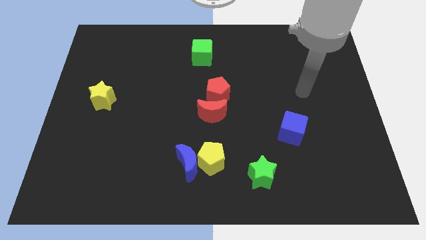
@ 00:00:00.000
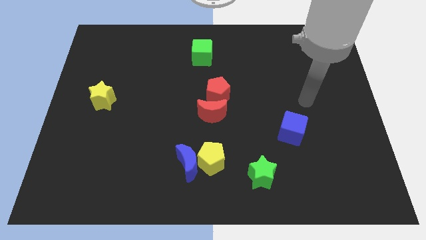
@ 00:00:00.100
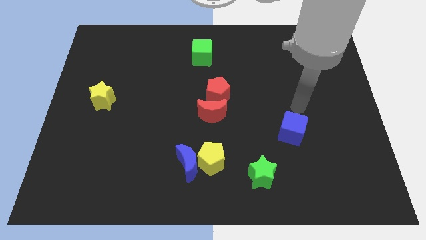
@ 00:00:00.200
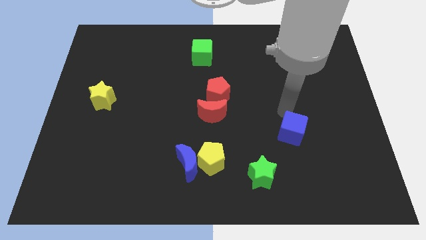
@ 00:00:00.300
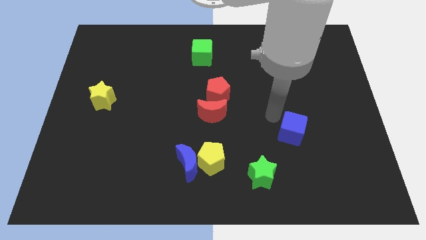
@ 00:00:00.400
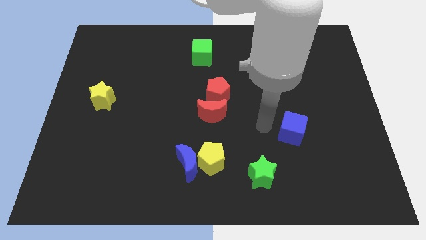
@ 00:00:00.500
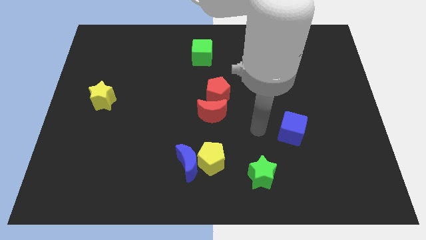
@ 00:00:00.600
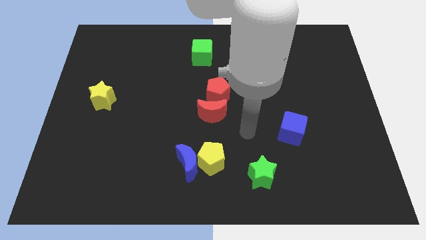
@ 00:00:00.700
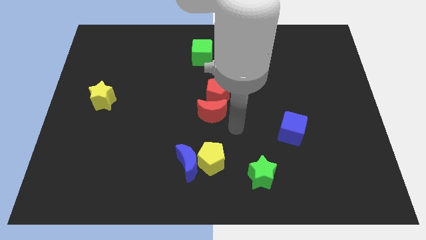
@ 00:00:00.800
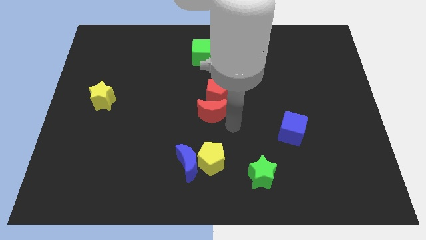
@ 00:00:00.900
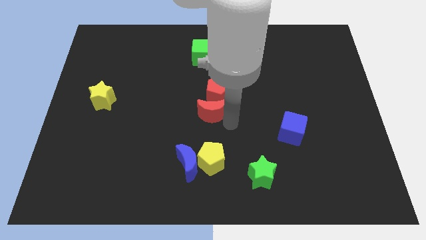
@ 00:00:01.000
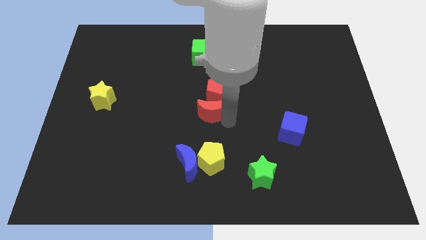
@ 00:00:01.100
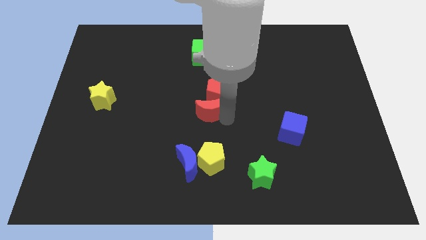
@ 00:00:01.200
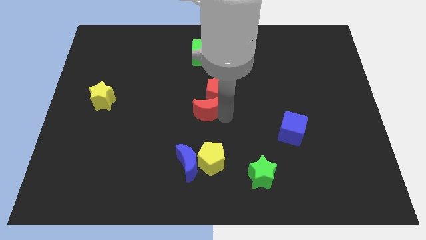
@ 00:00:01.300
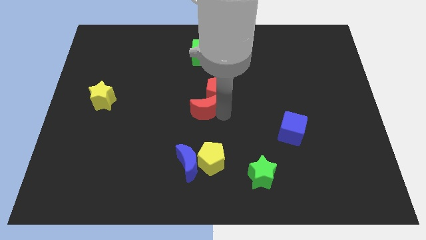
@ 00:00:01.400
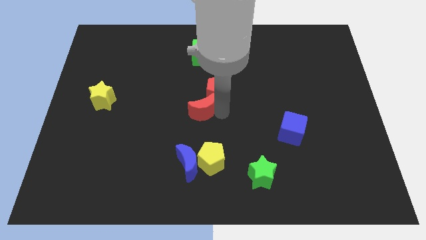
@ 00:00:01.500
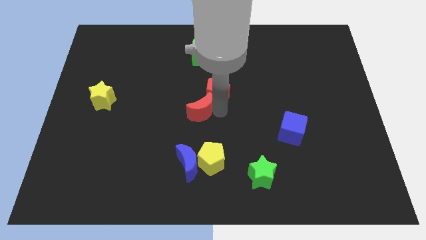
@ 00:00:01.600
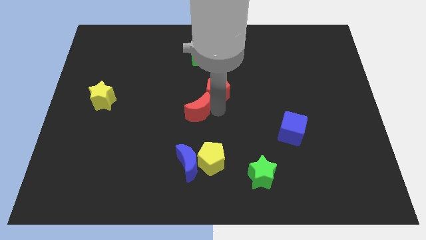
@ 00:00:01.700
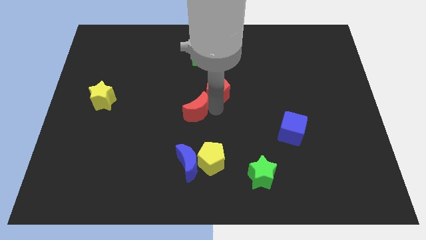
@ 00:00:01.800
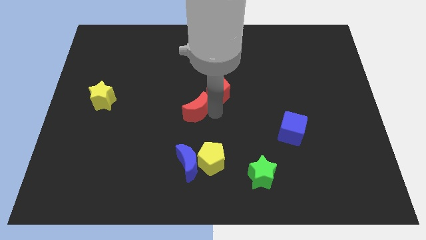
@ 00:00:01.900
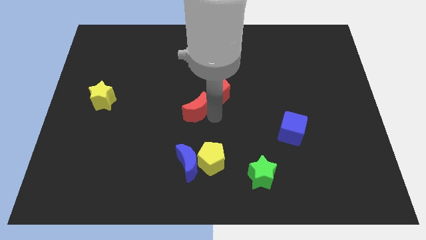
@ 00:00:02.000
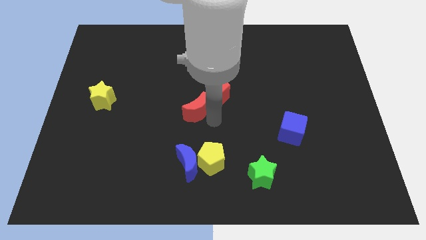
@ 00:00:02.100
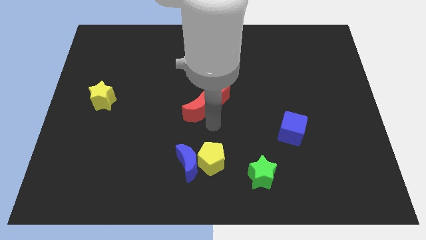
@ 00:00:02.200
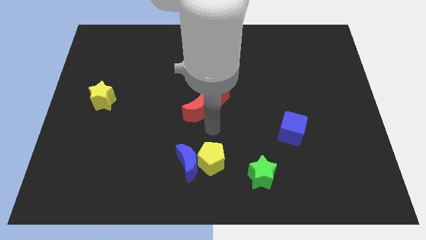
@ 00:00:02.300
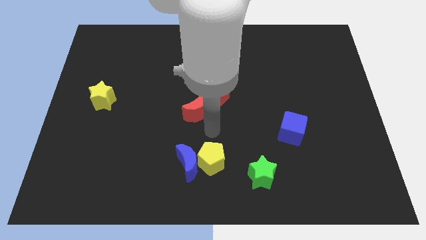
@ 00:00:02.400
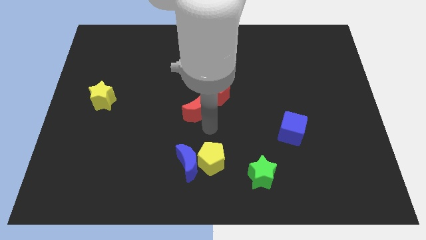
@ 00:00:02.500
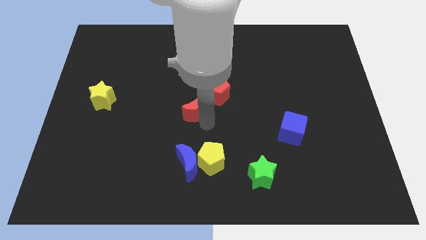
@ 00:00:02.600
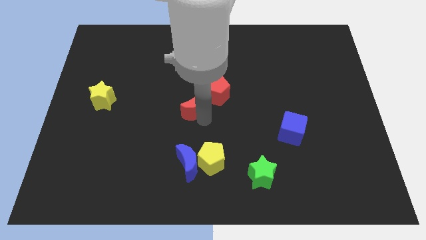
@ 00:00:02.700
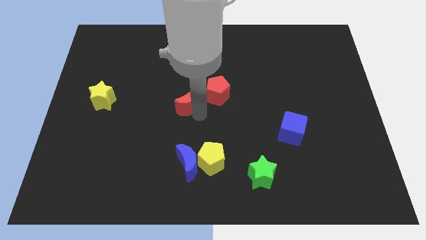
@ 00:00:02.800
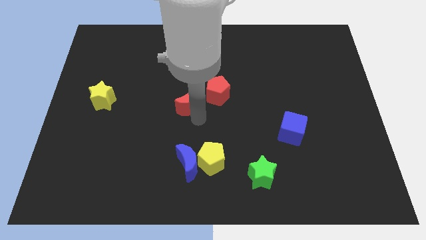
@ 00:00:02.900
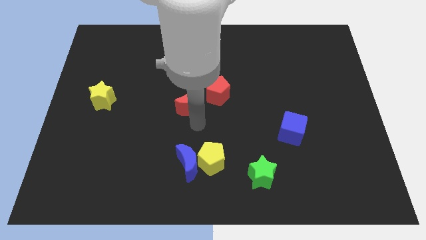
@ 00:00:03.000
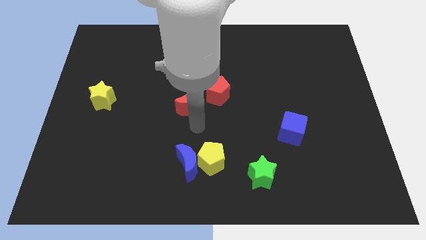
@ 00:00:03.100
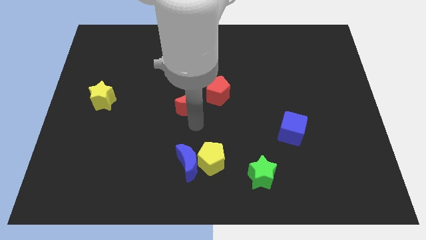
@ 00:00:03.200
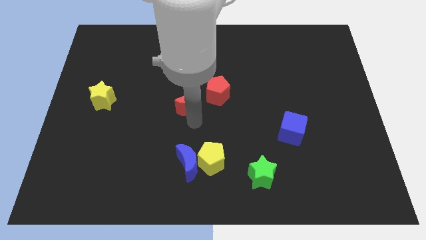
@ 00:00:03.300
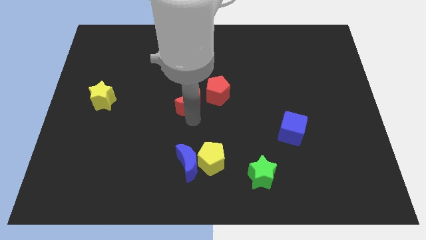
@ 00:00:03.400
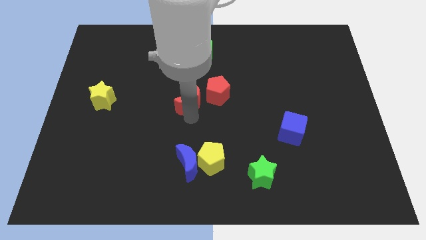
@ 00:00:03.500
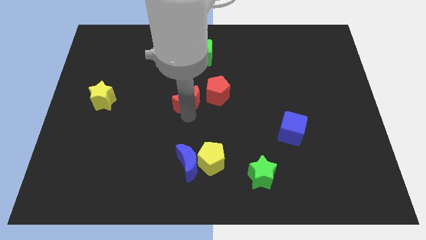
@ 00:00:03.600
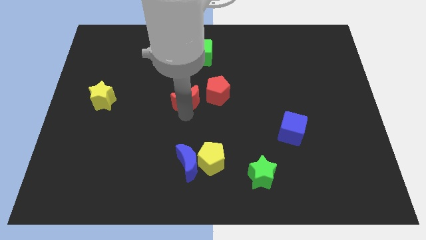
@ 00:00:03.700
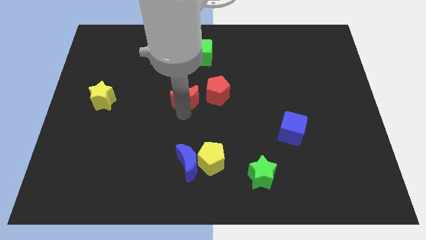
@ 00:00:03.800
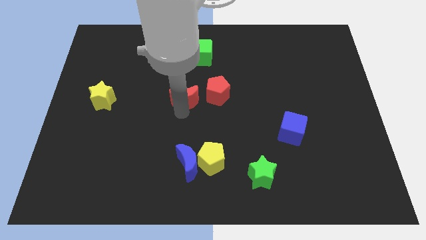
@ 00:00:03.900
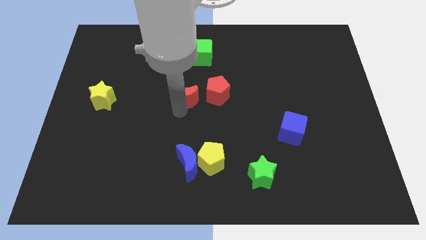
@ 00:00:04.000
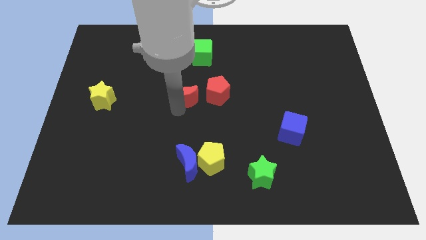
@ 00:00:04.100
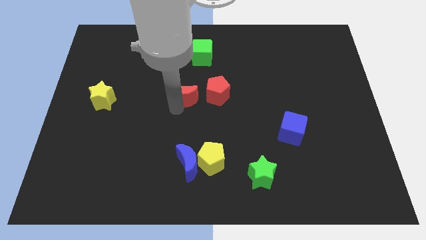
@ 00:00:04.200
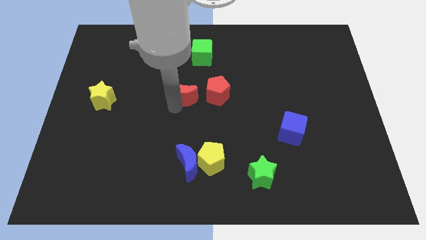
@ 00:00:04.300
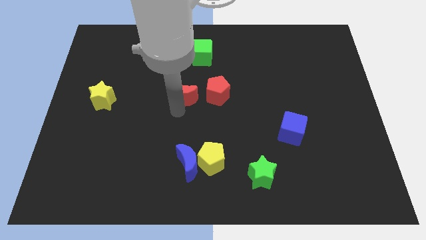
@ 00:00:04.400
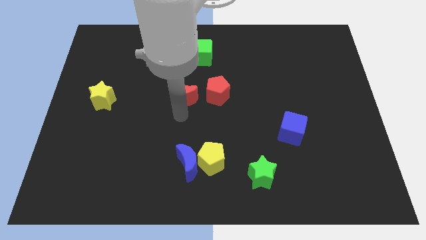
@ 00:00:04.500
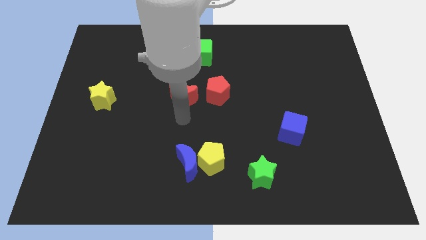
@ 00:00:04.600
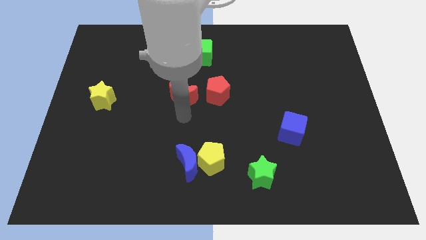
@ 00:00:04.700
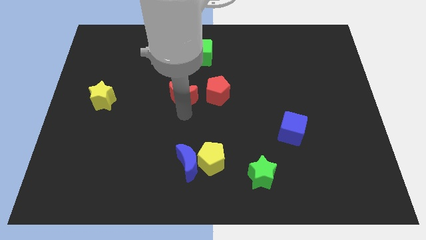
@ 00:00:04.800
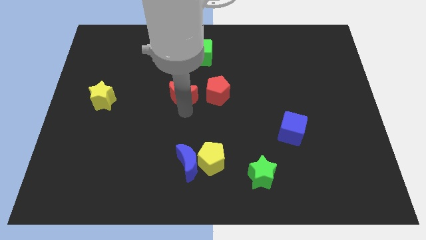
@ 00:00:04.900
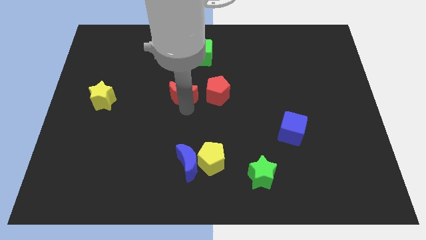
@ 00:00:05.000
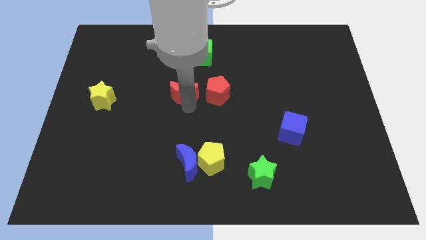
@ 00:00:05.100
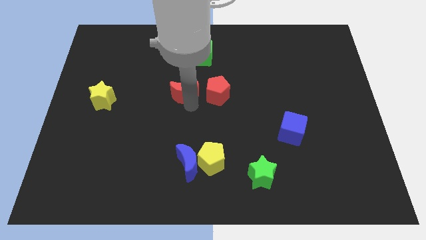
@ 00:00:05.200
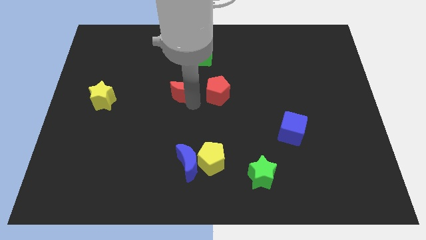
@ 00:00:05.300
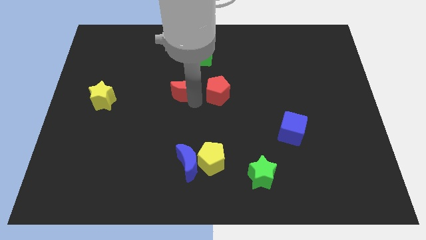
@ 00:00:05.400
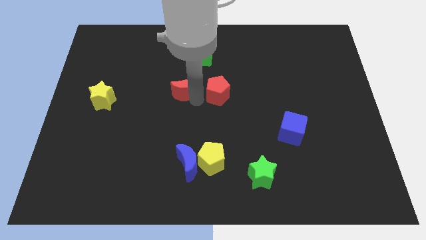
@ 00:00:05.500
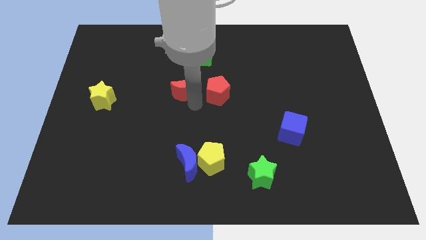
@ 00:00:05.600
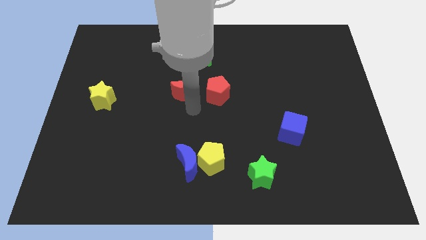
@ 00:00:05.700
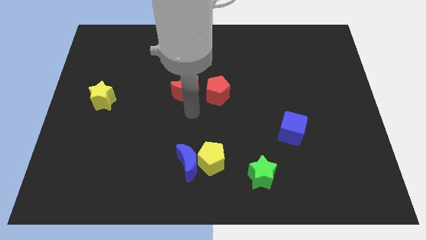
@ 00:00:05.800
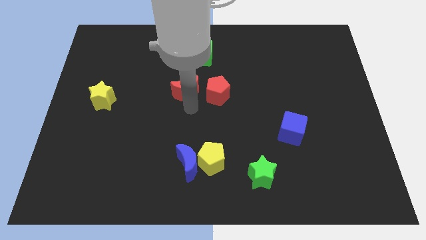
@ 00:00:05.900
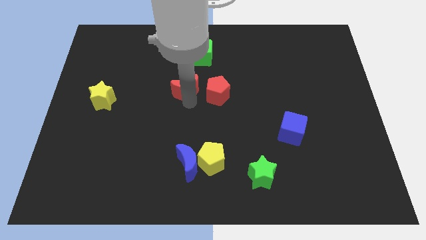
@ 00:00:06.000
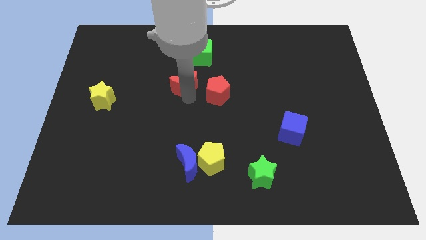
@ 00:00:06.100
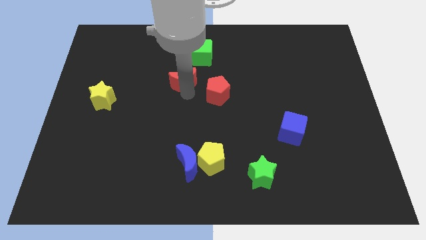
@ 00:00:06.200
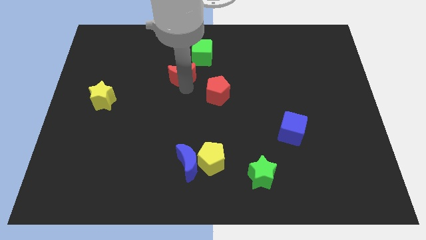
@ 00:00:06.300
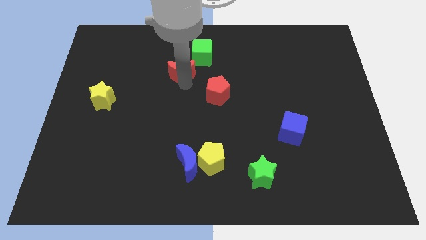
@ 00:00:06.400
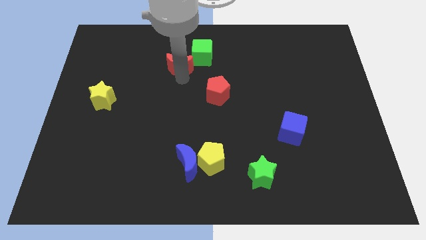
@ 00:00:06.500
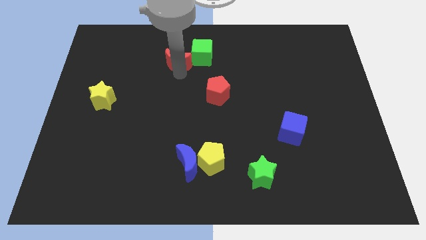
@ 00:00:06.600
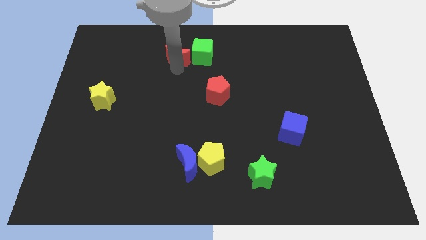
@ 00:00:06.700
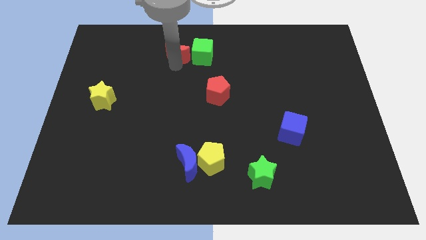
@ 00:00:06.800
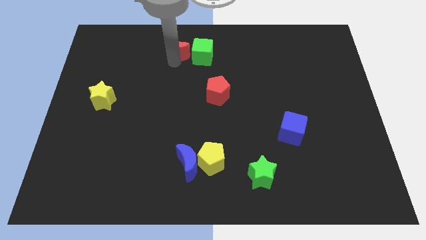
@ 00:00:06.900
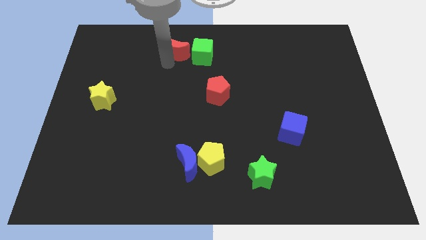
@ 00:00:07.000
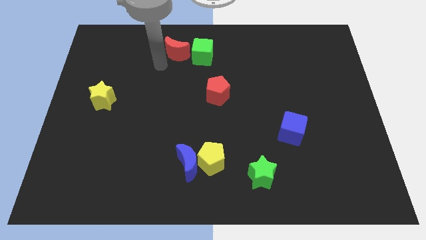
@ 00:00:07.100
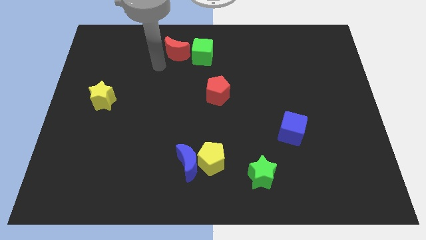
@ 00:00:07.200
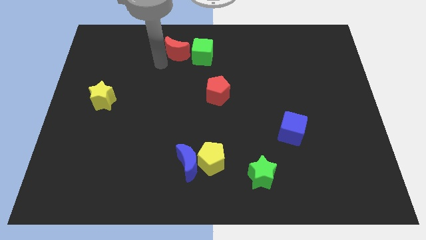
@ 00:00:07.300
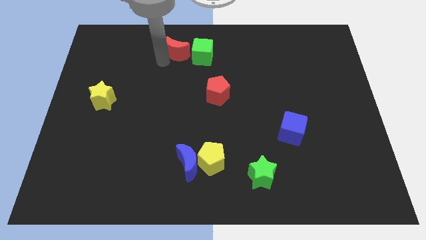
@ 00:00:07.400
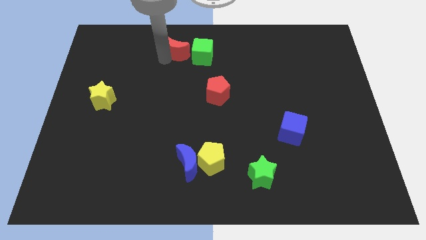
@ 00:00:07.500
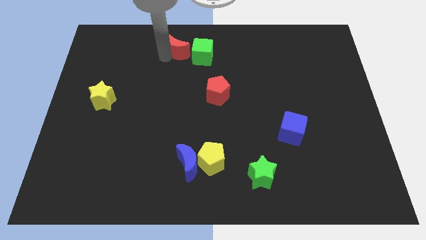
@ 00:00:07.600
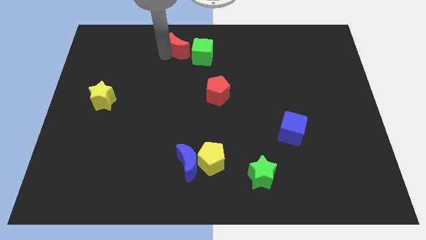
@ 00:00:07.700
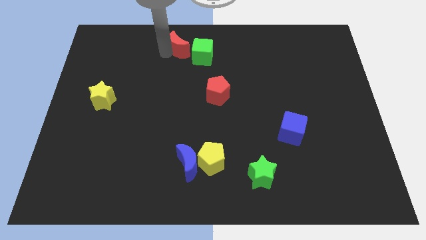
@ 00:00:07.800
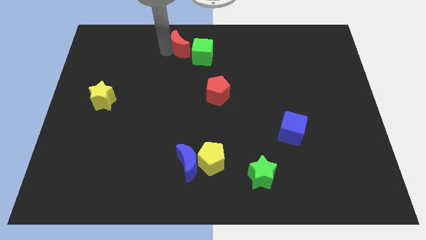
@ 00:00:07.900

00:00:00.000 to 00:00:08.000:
push the red moon to the towards your base
